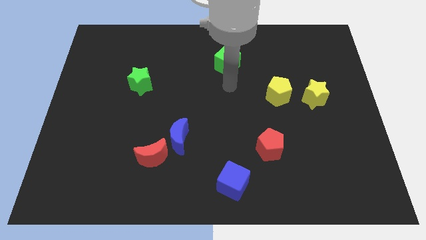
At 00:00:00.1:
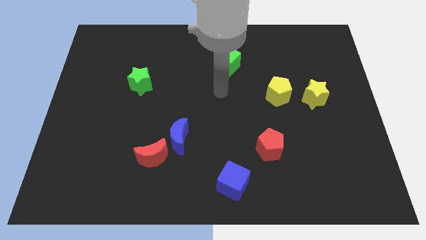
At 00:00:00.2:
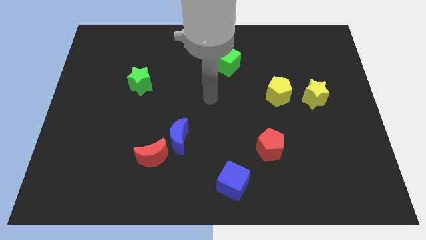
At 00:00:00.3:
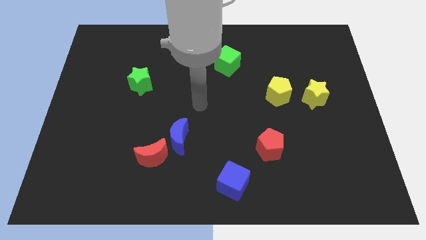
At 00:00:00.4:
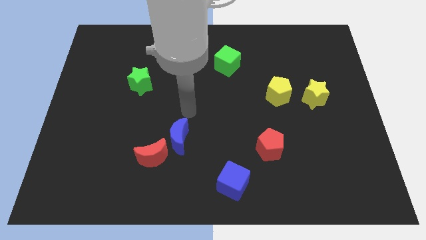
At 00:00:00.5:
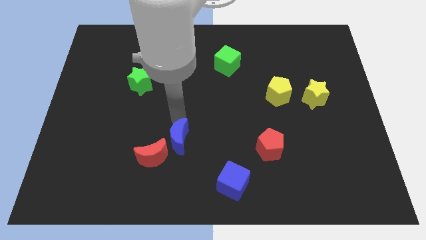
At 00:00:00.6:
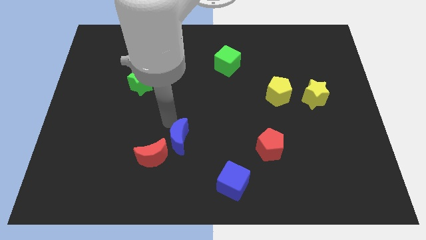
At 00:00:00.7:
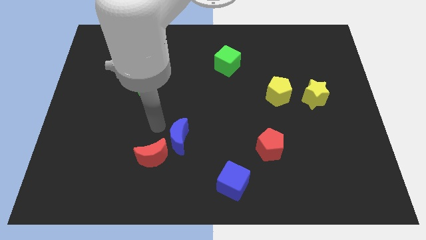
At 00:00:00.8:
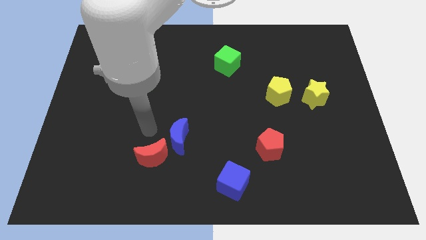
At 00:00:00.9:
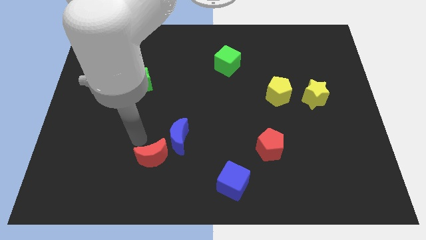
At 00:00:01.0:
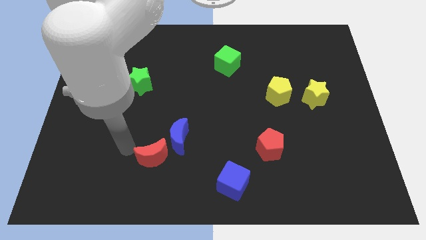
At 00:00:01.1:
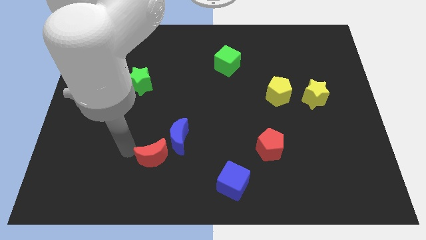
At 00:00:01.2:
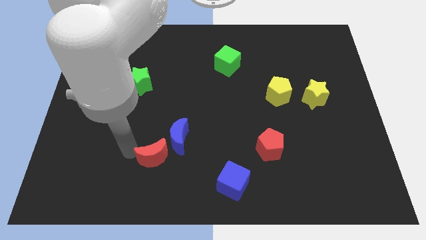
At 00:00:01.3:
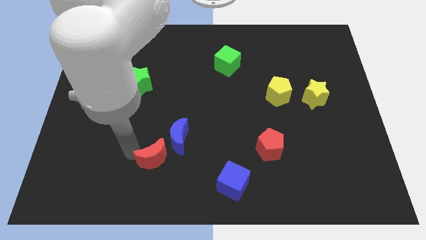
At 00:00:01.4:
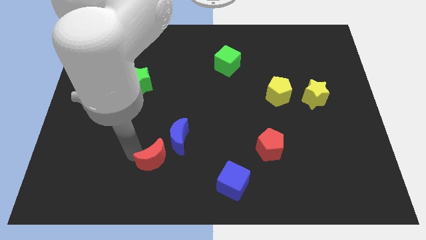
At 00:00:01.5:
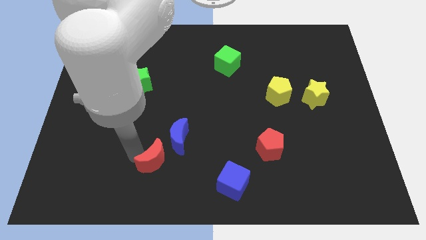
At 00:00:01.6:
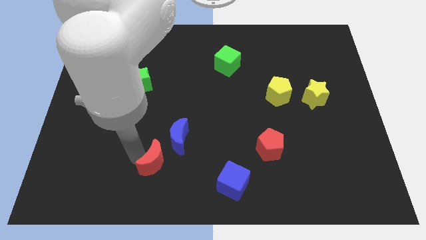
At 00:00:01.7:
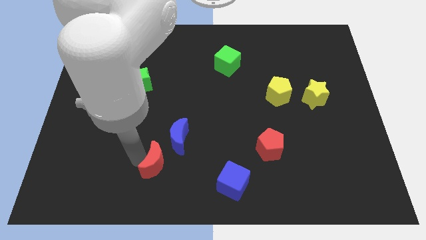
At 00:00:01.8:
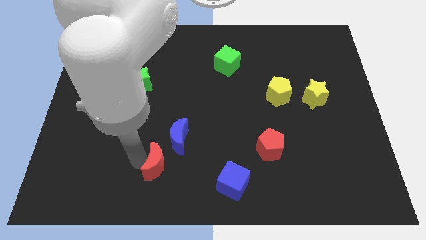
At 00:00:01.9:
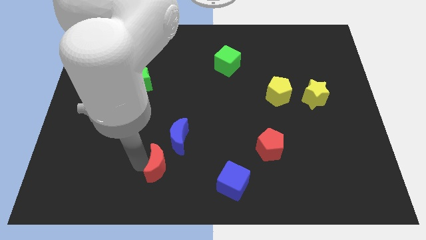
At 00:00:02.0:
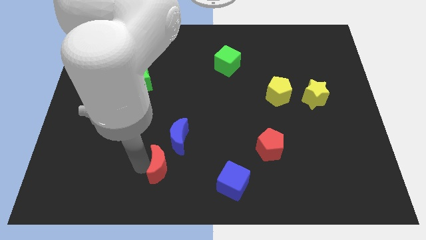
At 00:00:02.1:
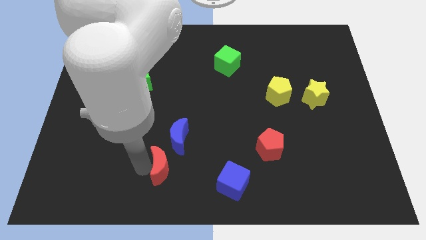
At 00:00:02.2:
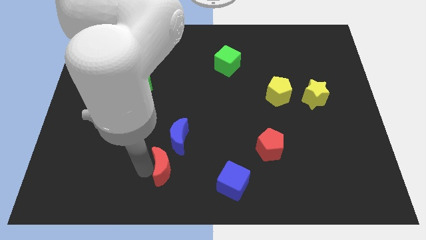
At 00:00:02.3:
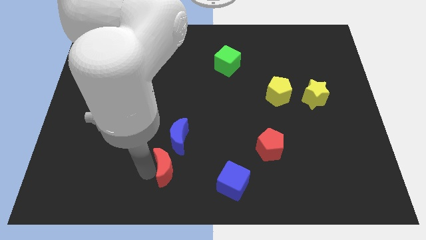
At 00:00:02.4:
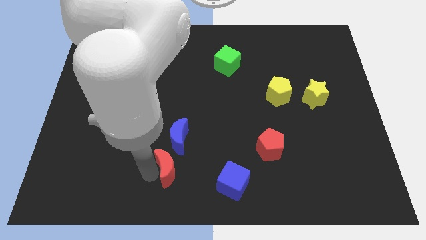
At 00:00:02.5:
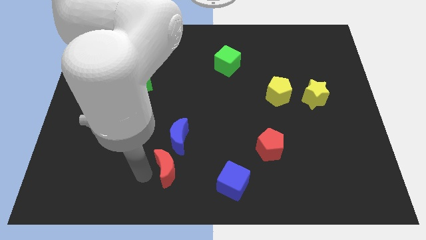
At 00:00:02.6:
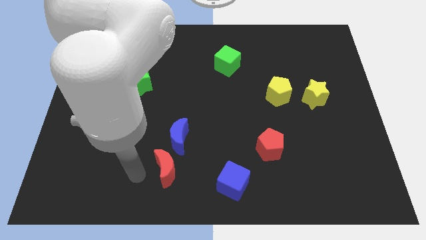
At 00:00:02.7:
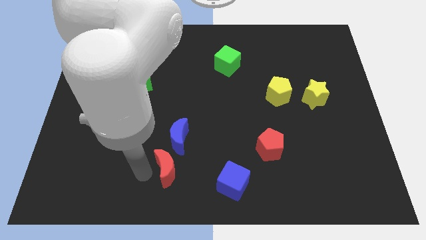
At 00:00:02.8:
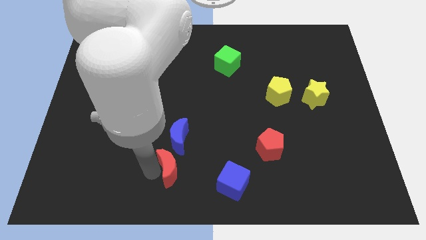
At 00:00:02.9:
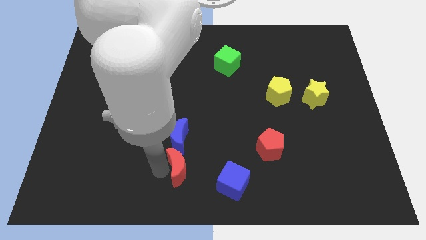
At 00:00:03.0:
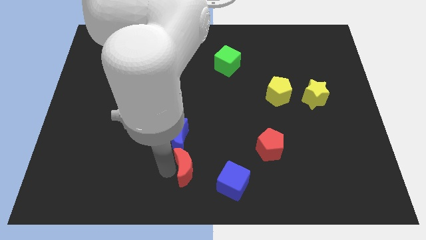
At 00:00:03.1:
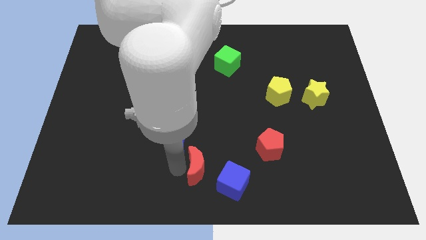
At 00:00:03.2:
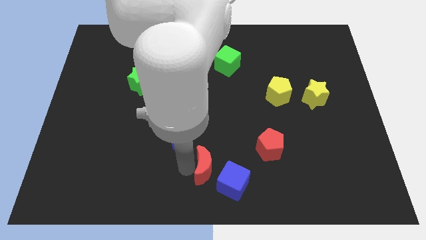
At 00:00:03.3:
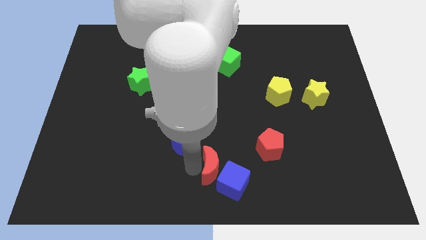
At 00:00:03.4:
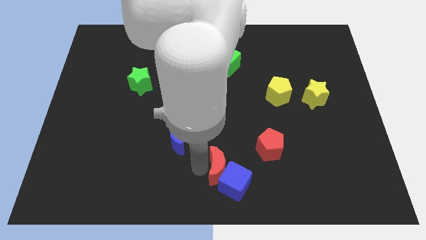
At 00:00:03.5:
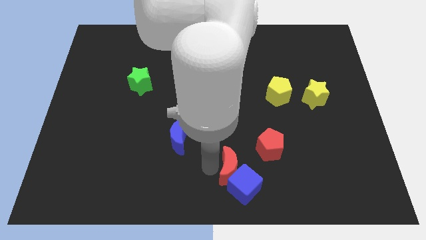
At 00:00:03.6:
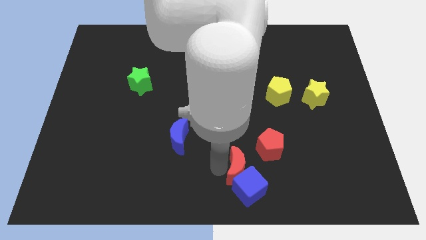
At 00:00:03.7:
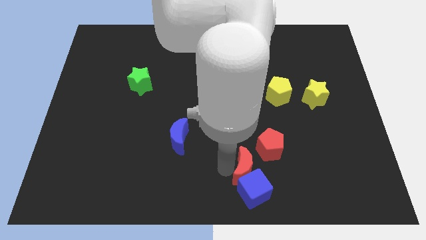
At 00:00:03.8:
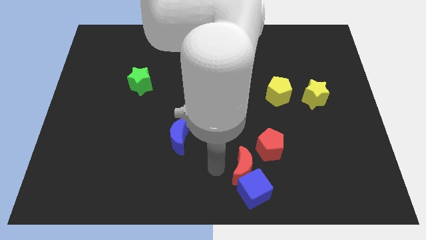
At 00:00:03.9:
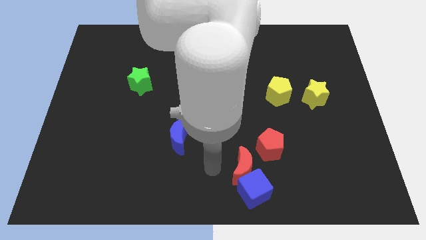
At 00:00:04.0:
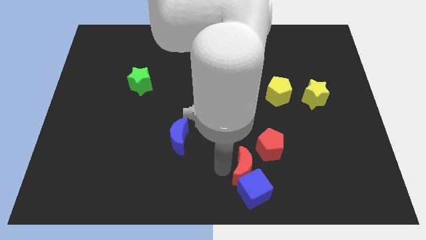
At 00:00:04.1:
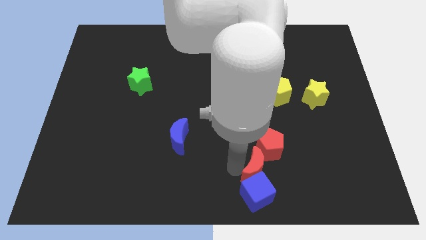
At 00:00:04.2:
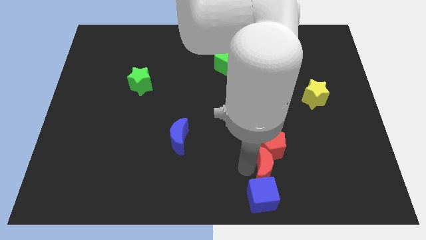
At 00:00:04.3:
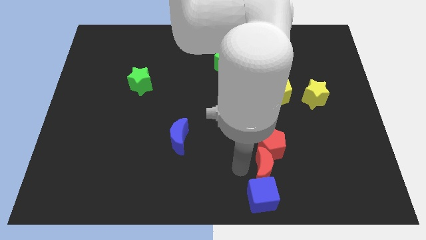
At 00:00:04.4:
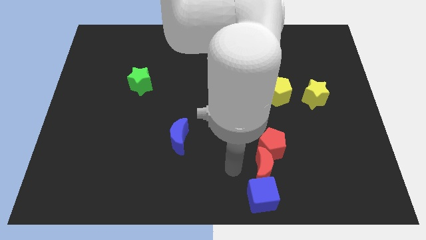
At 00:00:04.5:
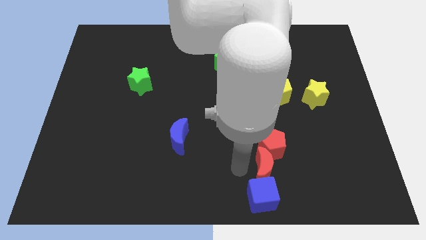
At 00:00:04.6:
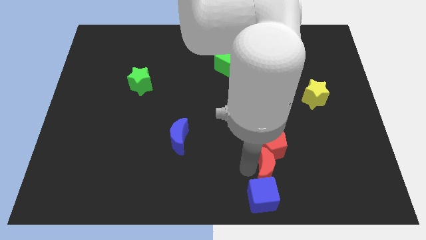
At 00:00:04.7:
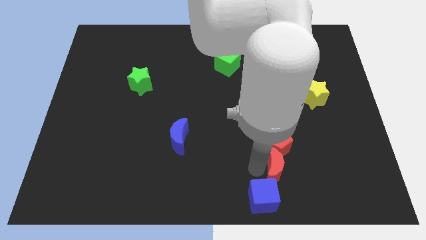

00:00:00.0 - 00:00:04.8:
move the red moon diagonally down and to the right of the red pentagon

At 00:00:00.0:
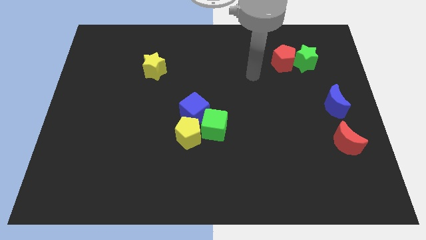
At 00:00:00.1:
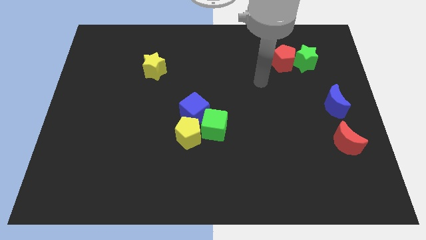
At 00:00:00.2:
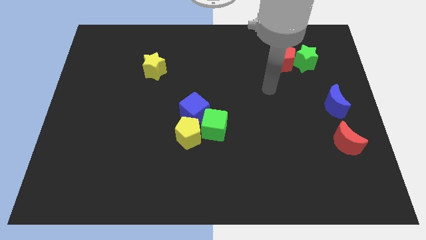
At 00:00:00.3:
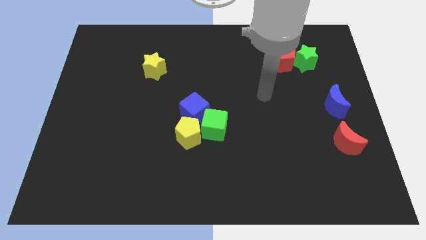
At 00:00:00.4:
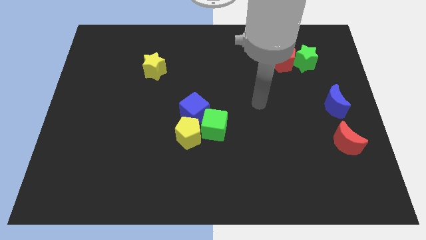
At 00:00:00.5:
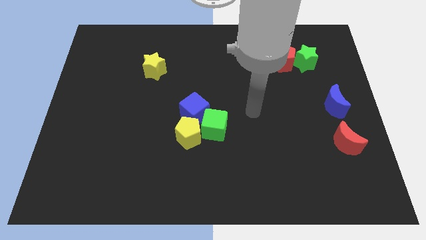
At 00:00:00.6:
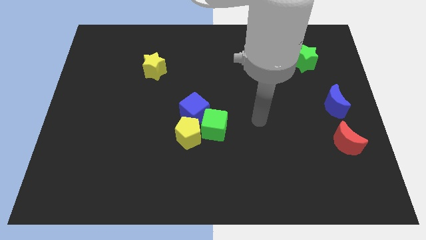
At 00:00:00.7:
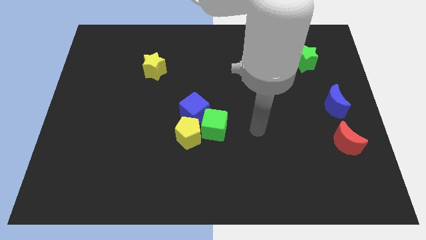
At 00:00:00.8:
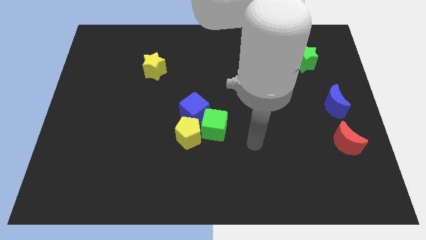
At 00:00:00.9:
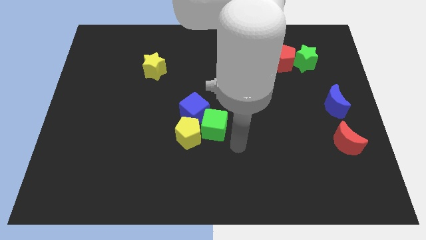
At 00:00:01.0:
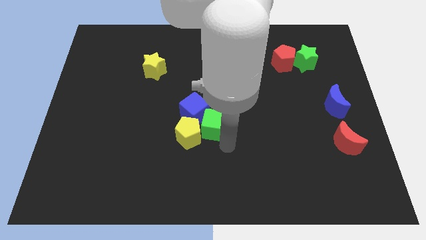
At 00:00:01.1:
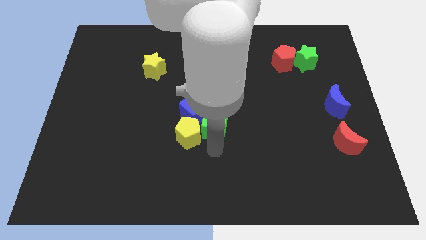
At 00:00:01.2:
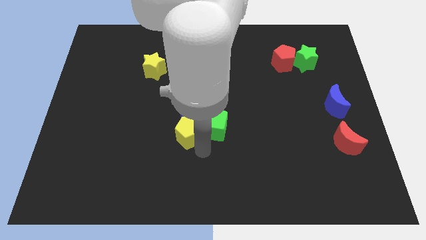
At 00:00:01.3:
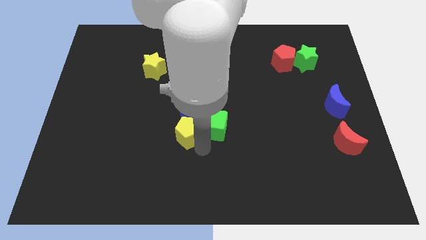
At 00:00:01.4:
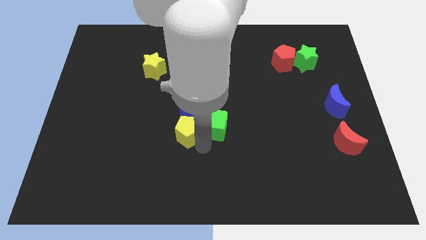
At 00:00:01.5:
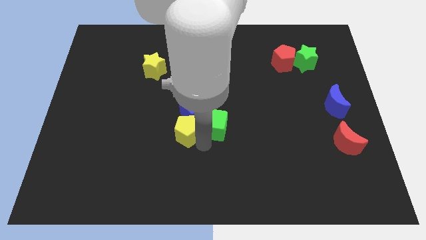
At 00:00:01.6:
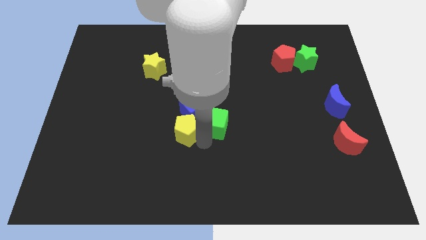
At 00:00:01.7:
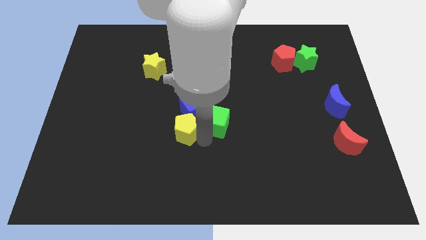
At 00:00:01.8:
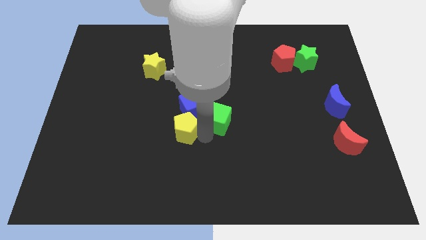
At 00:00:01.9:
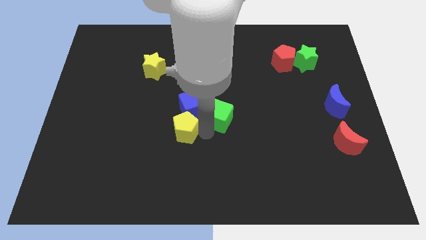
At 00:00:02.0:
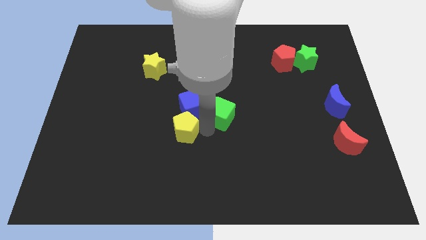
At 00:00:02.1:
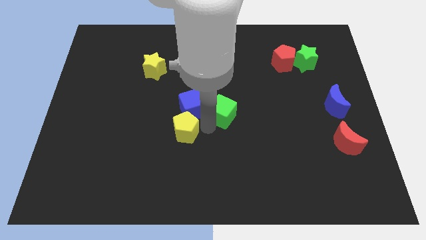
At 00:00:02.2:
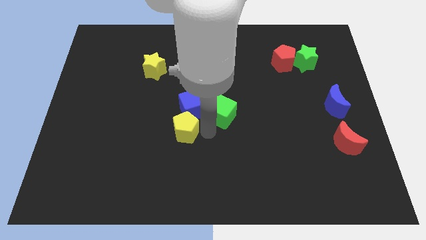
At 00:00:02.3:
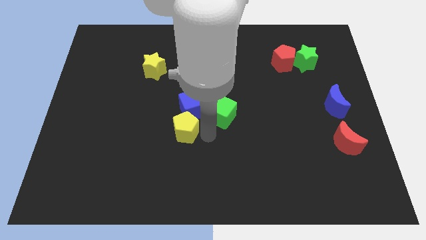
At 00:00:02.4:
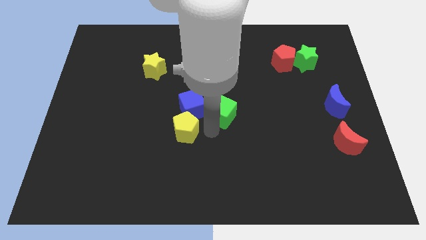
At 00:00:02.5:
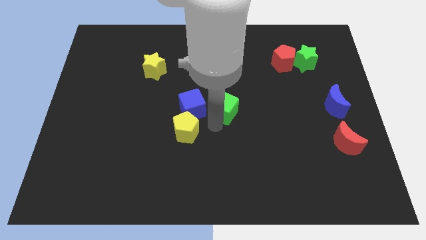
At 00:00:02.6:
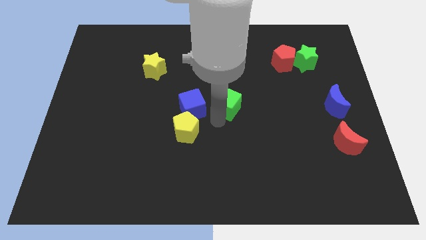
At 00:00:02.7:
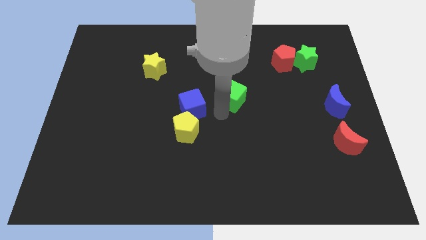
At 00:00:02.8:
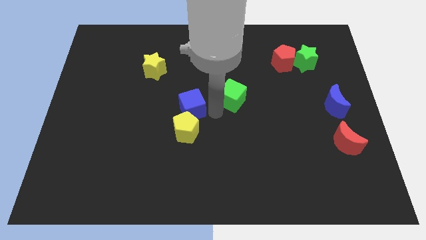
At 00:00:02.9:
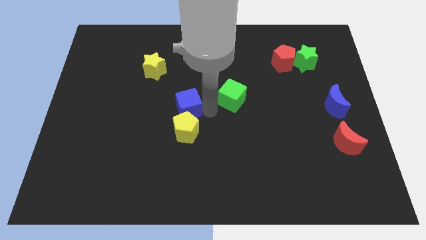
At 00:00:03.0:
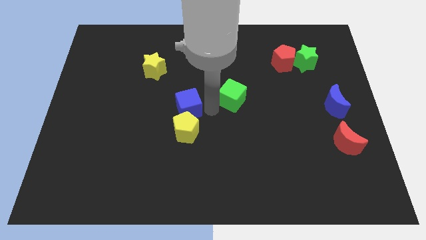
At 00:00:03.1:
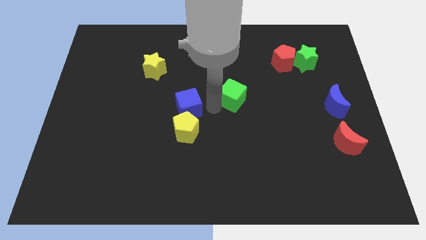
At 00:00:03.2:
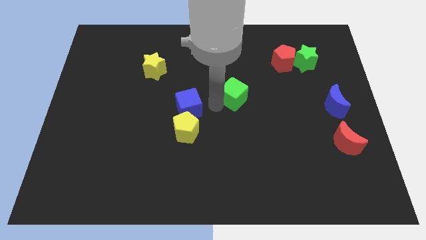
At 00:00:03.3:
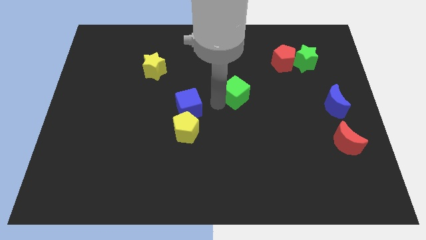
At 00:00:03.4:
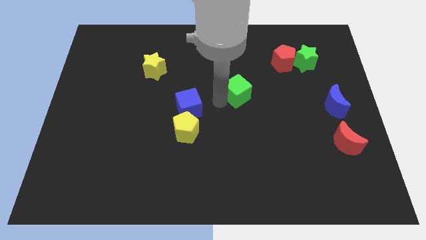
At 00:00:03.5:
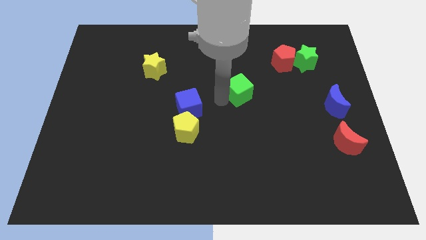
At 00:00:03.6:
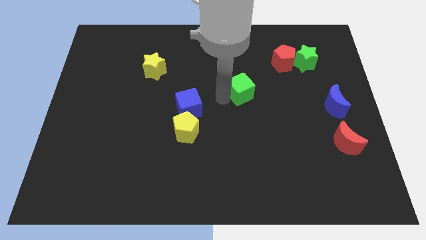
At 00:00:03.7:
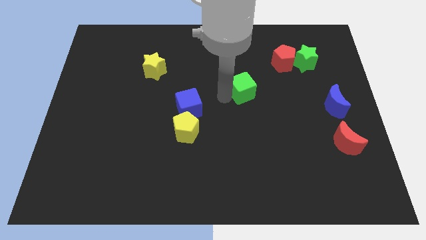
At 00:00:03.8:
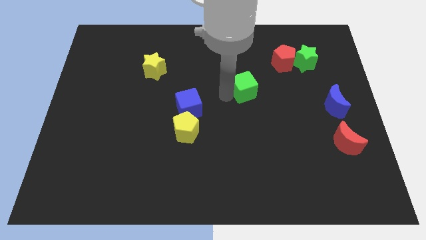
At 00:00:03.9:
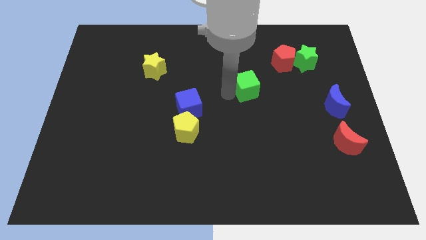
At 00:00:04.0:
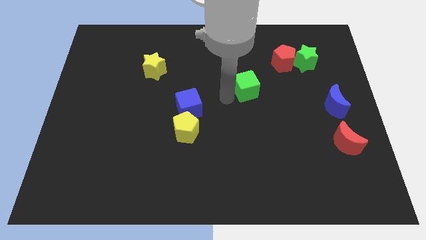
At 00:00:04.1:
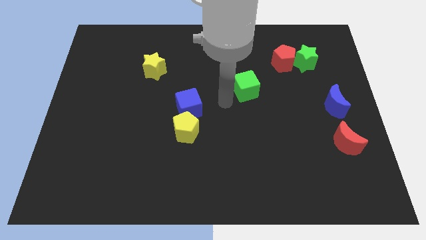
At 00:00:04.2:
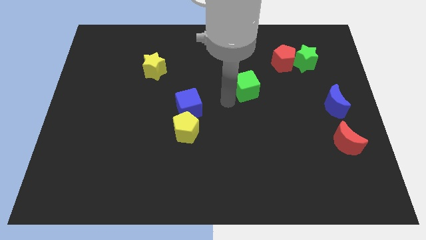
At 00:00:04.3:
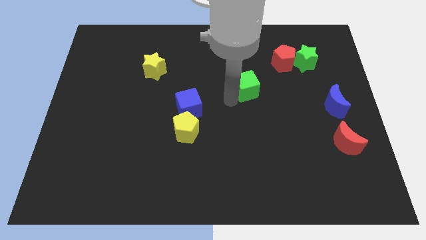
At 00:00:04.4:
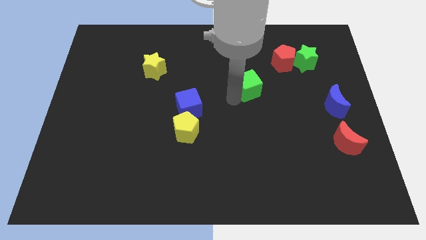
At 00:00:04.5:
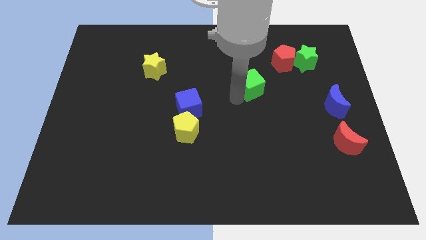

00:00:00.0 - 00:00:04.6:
move the green cube to the bottom left of the red pentagon
